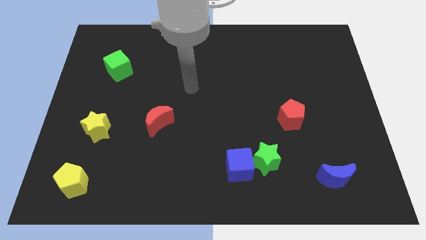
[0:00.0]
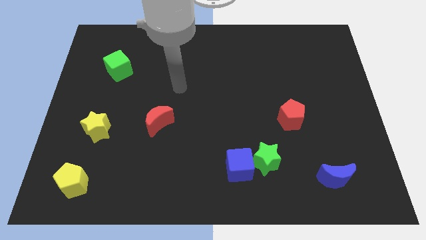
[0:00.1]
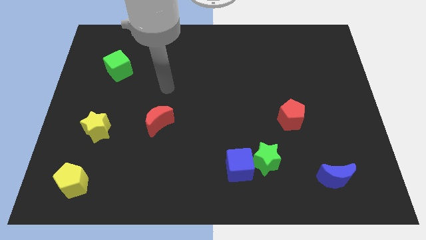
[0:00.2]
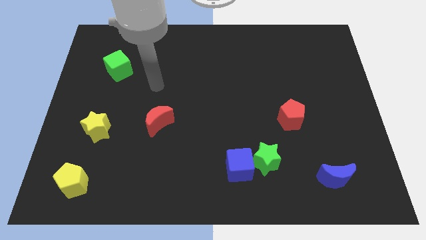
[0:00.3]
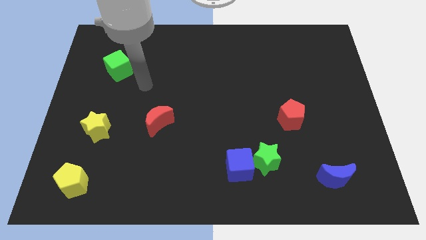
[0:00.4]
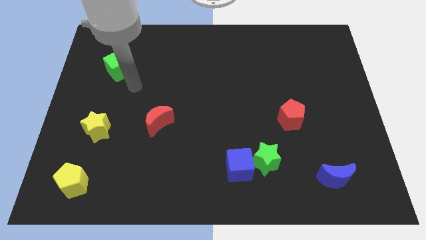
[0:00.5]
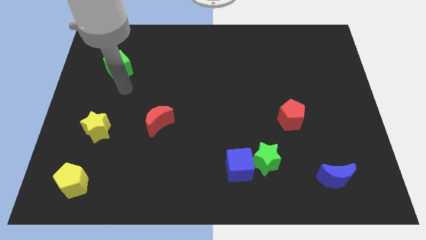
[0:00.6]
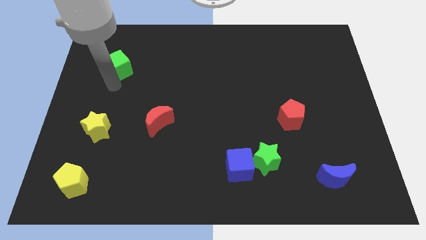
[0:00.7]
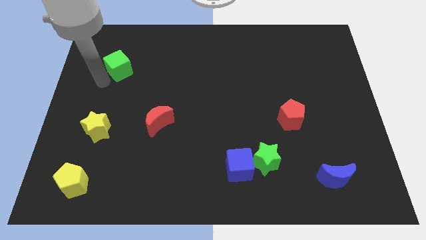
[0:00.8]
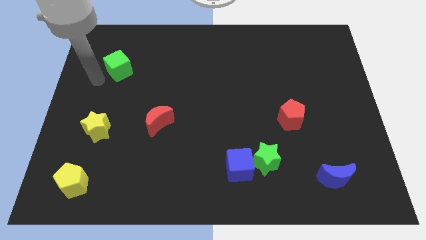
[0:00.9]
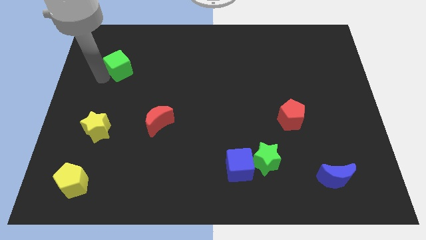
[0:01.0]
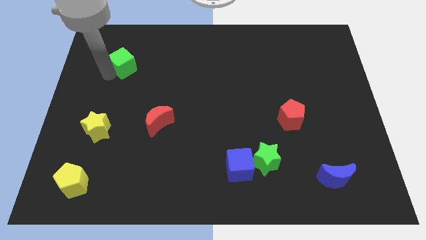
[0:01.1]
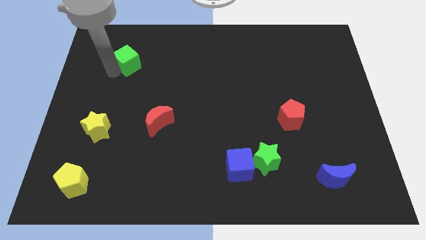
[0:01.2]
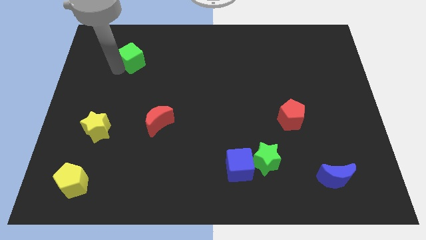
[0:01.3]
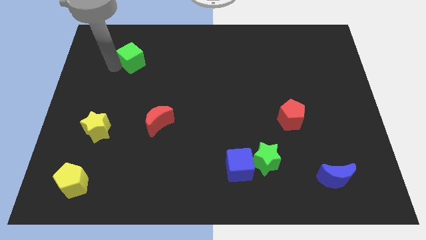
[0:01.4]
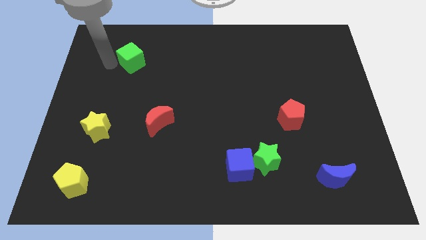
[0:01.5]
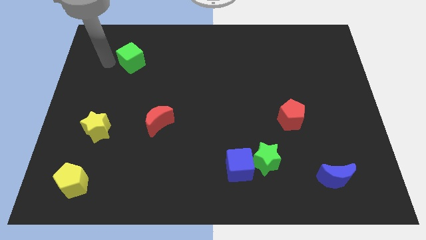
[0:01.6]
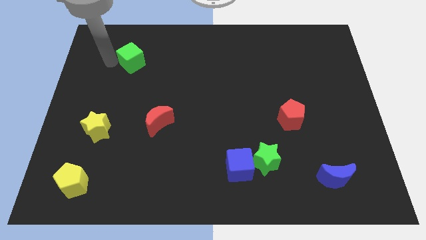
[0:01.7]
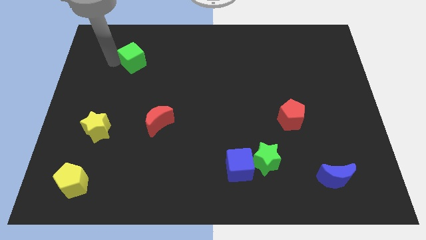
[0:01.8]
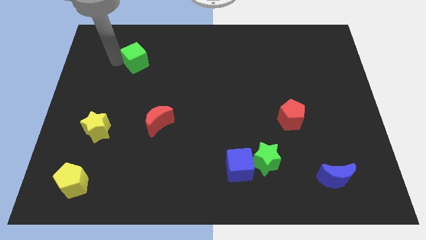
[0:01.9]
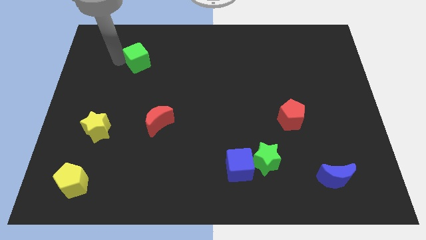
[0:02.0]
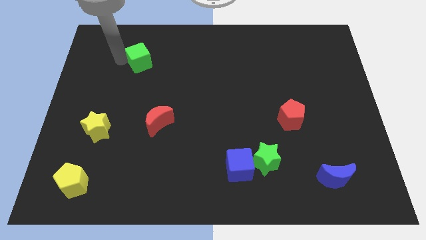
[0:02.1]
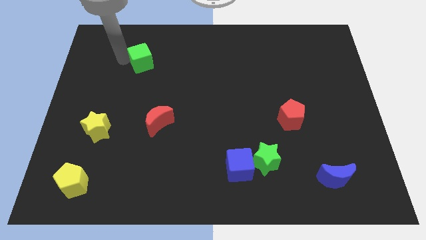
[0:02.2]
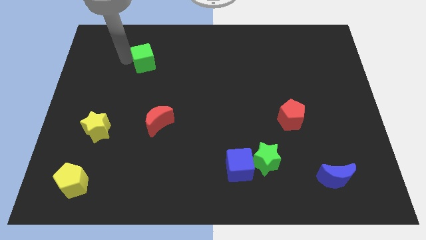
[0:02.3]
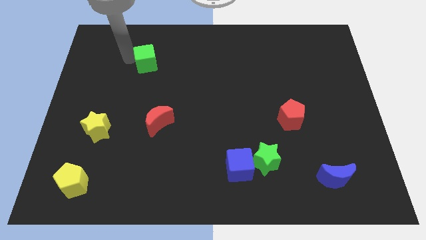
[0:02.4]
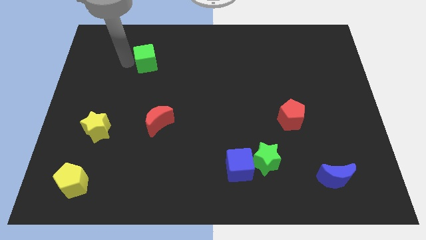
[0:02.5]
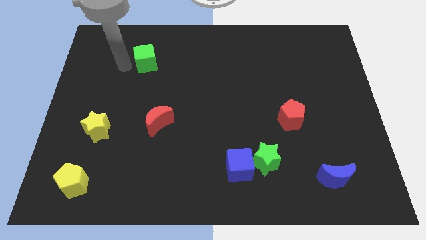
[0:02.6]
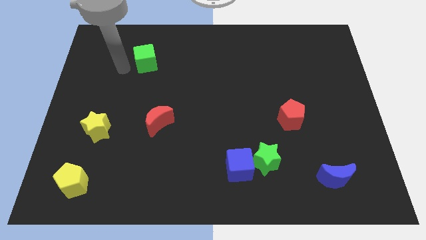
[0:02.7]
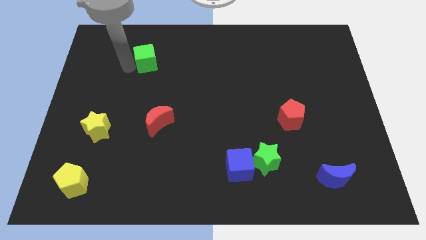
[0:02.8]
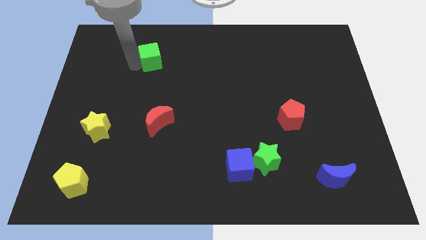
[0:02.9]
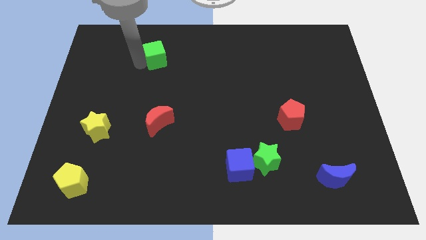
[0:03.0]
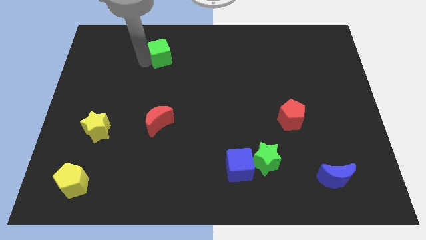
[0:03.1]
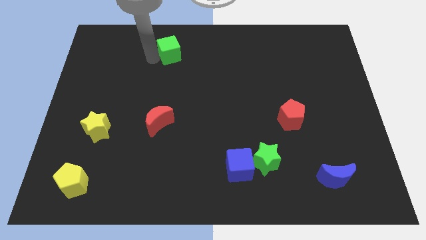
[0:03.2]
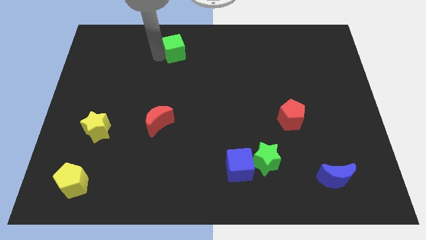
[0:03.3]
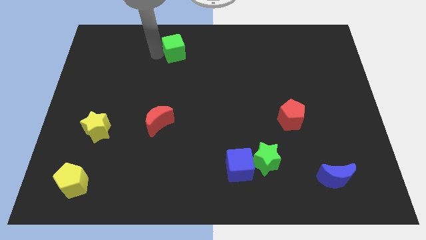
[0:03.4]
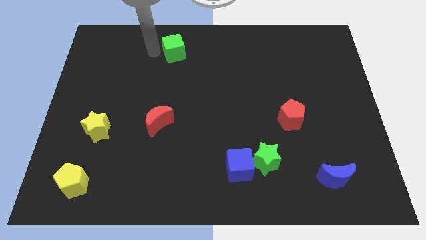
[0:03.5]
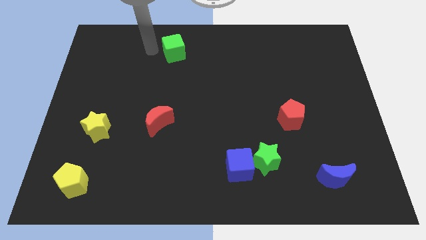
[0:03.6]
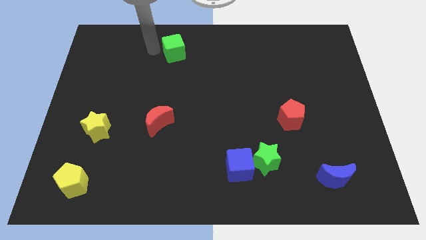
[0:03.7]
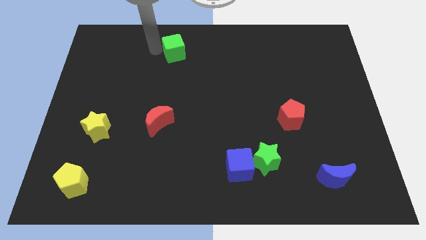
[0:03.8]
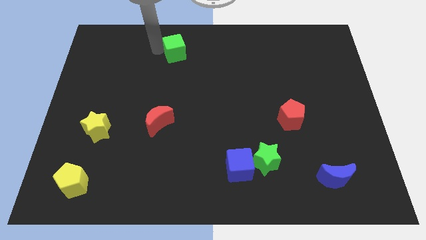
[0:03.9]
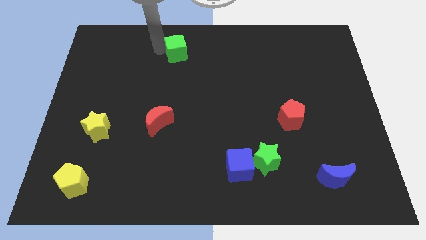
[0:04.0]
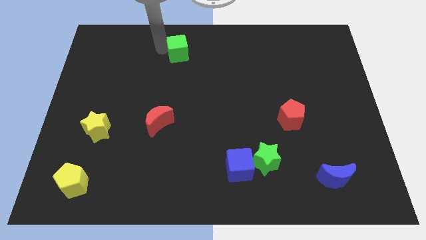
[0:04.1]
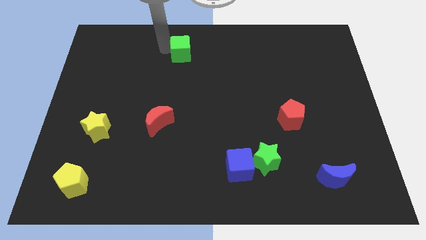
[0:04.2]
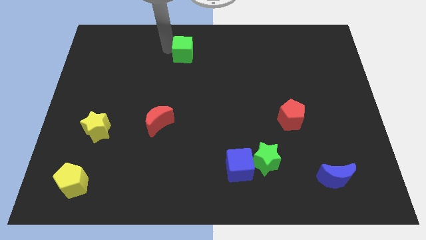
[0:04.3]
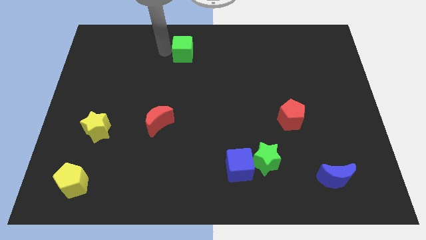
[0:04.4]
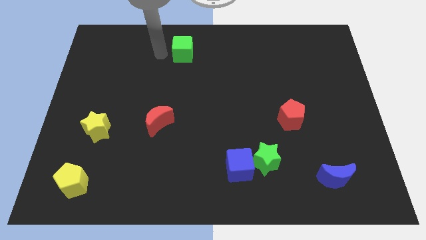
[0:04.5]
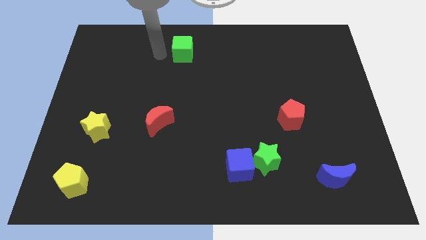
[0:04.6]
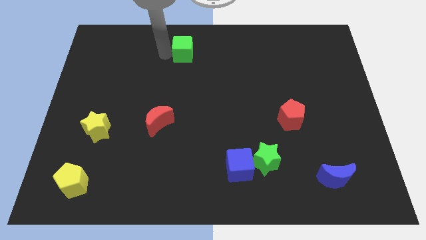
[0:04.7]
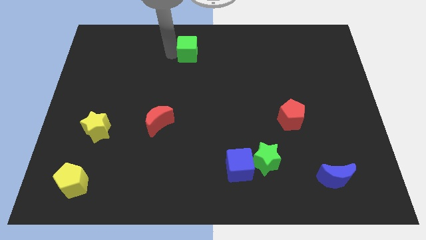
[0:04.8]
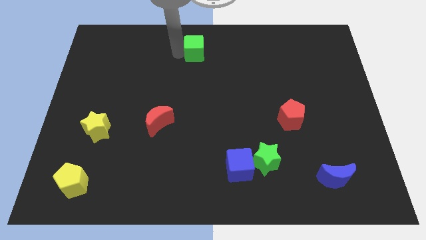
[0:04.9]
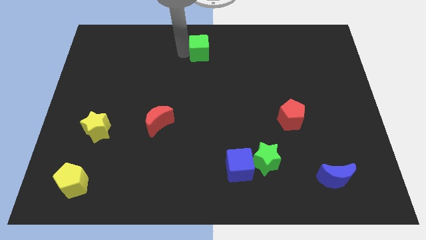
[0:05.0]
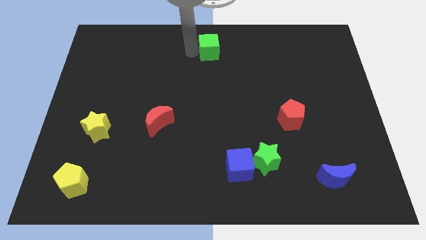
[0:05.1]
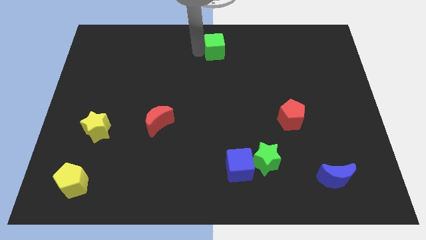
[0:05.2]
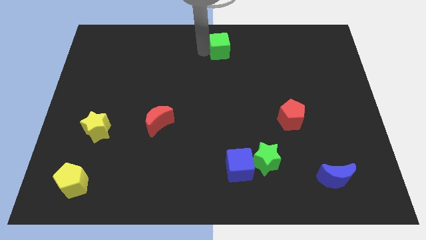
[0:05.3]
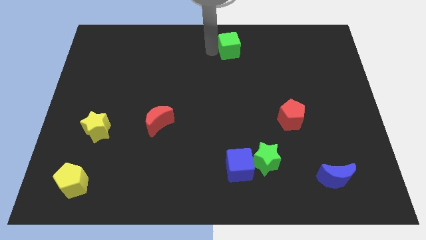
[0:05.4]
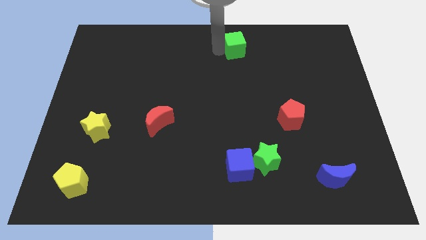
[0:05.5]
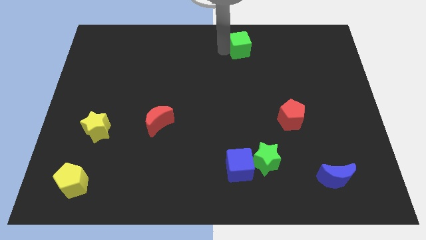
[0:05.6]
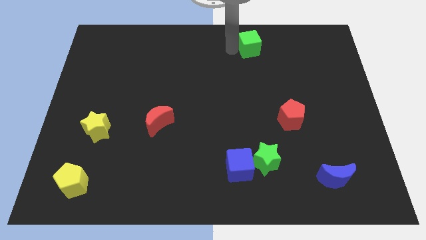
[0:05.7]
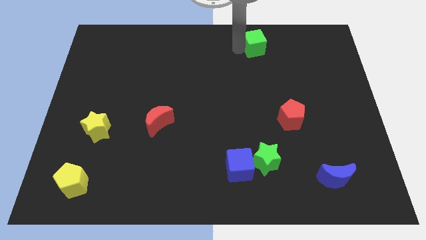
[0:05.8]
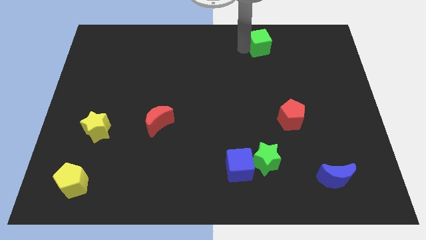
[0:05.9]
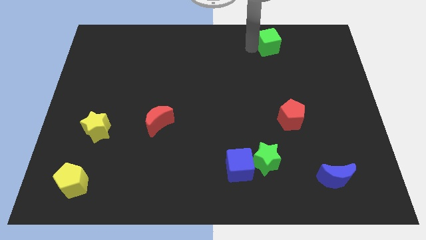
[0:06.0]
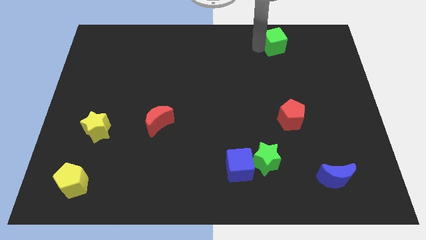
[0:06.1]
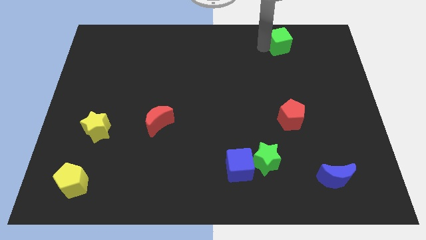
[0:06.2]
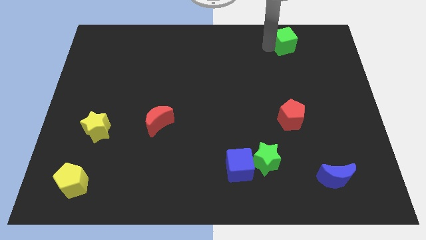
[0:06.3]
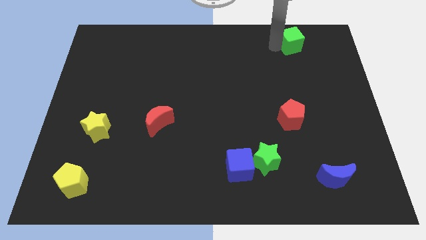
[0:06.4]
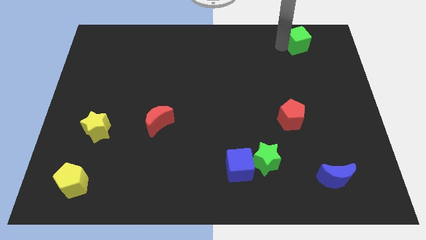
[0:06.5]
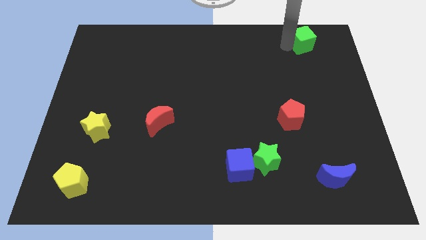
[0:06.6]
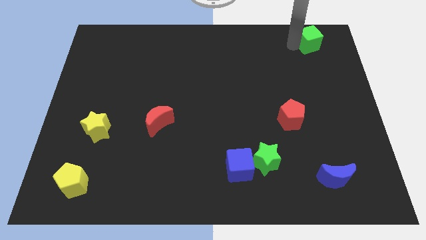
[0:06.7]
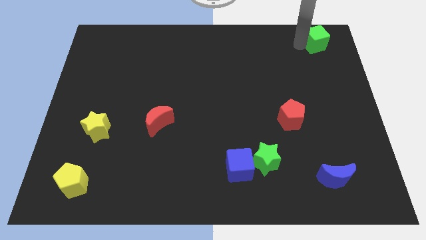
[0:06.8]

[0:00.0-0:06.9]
slide the green cube to the upper right corner
